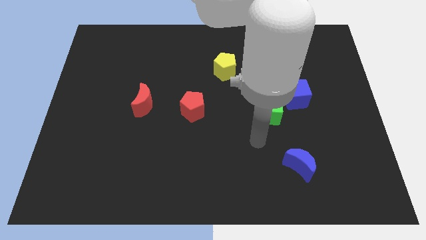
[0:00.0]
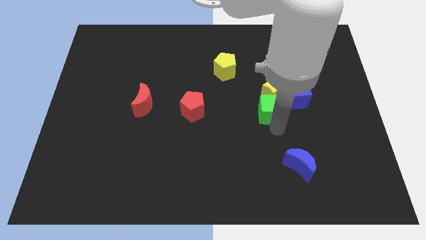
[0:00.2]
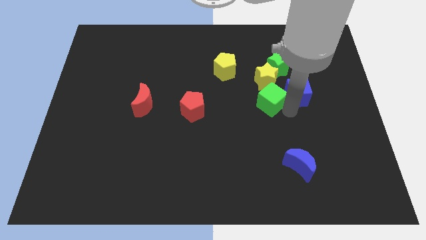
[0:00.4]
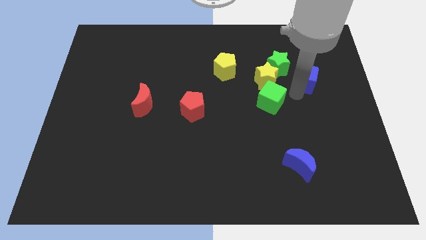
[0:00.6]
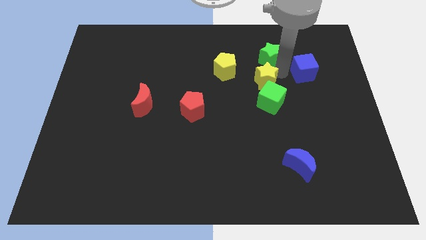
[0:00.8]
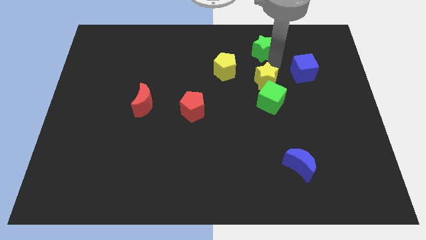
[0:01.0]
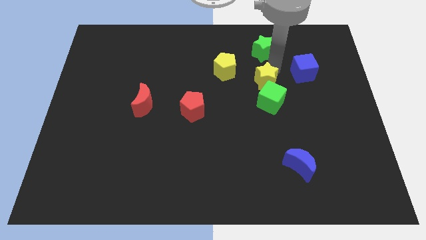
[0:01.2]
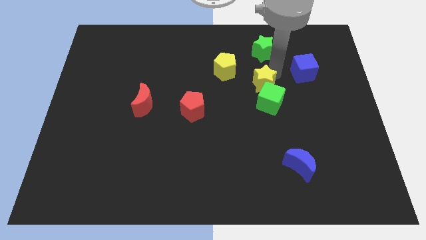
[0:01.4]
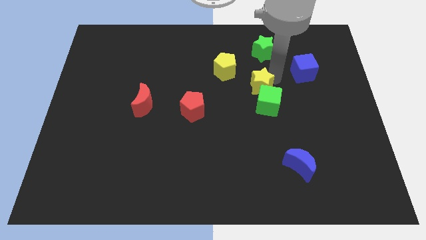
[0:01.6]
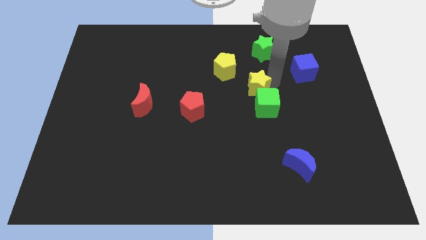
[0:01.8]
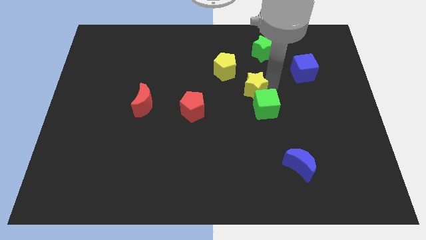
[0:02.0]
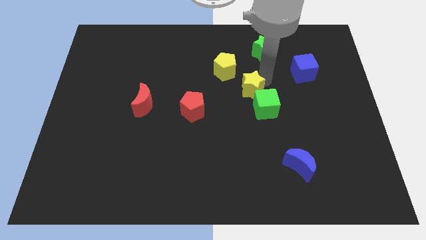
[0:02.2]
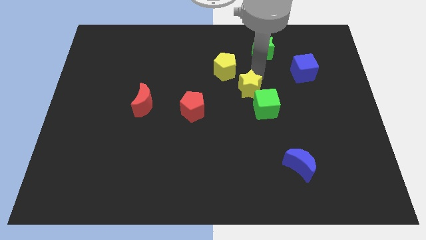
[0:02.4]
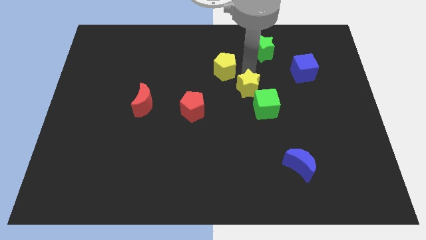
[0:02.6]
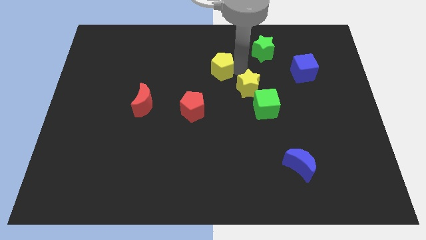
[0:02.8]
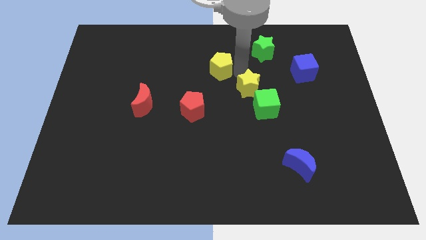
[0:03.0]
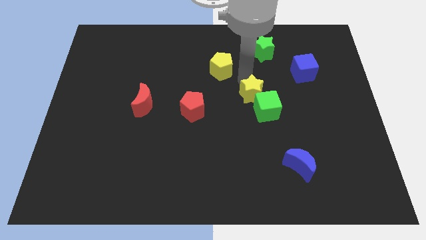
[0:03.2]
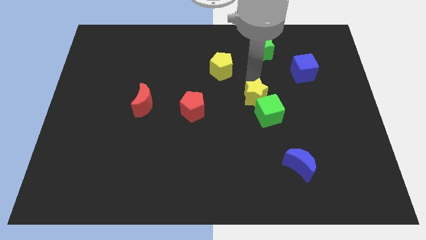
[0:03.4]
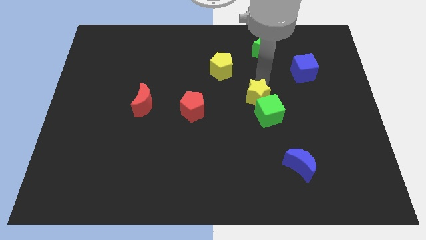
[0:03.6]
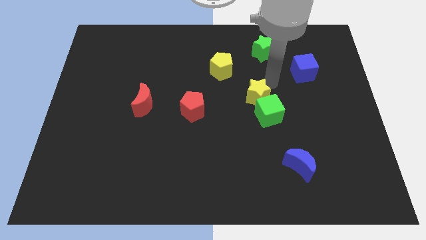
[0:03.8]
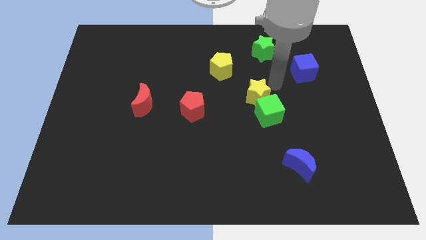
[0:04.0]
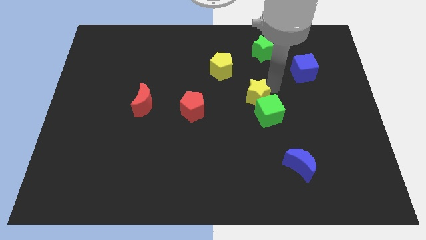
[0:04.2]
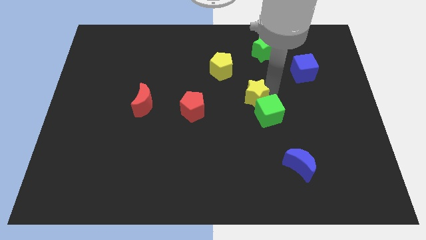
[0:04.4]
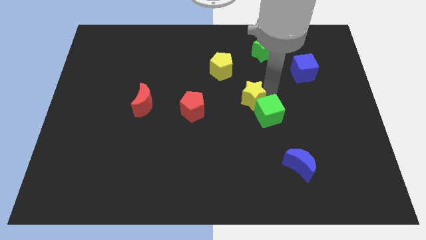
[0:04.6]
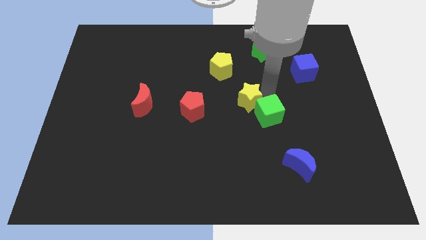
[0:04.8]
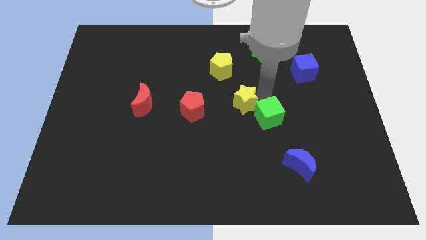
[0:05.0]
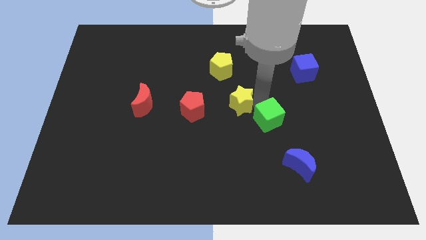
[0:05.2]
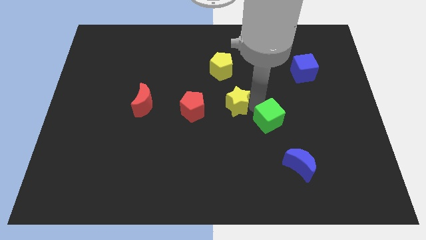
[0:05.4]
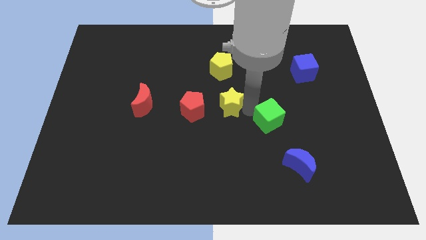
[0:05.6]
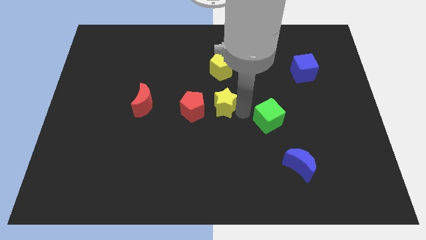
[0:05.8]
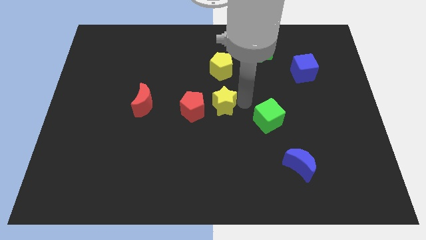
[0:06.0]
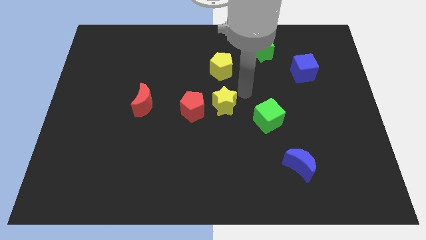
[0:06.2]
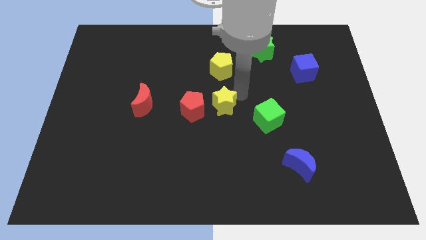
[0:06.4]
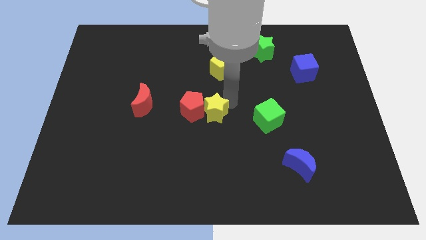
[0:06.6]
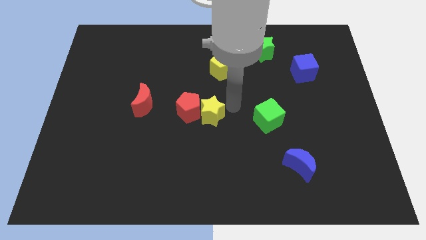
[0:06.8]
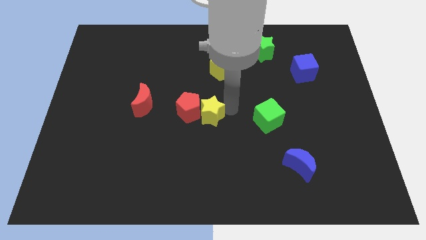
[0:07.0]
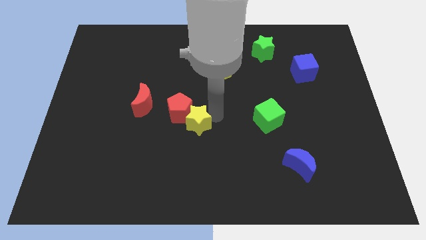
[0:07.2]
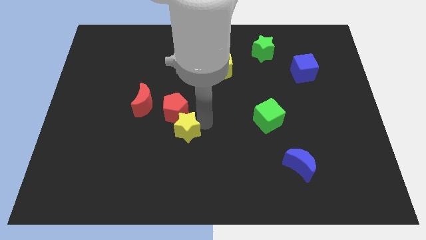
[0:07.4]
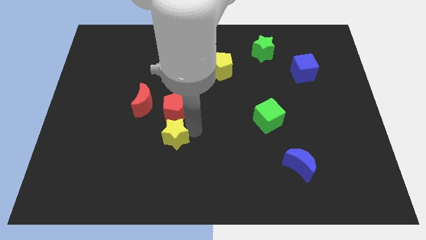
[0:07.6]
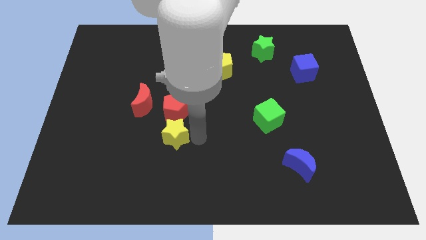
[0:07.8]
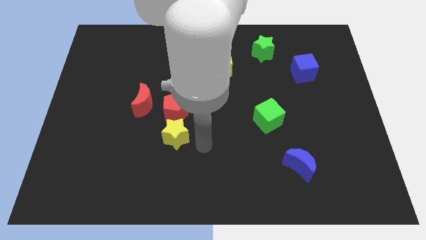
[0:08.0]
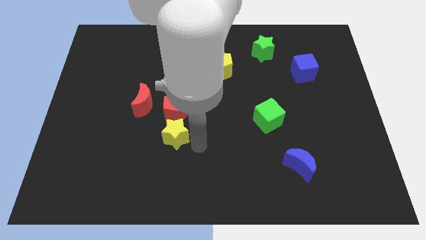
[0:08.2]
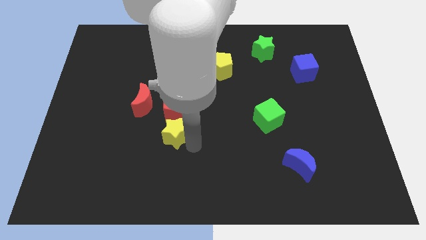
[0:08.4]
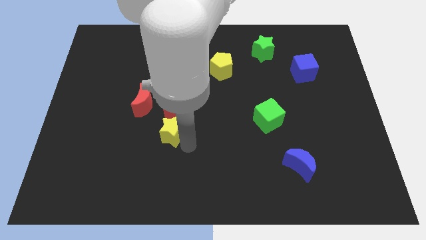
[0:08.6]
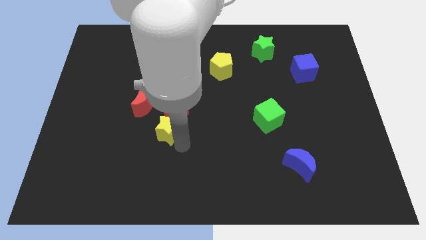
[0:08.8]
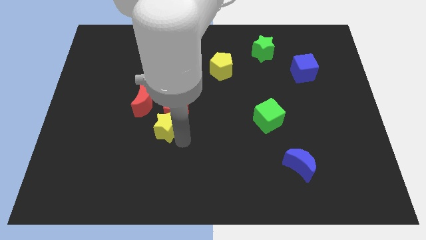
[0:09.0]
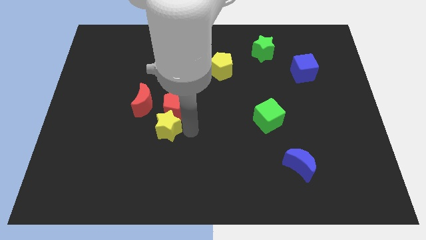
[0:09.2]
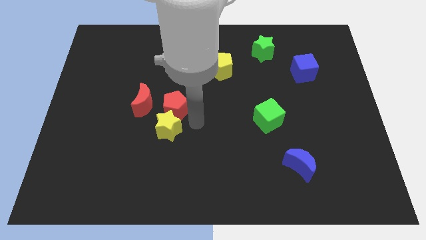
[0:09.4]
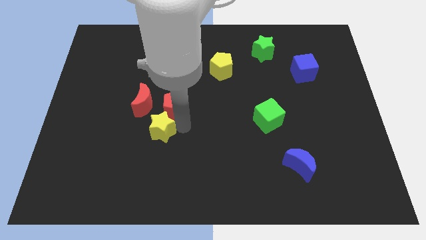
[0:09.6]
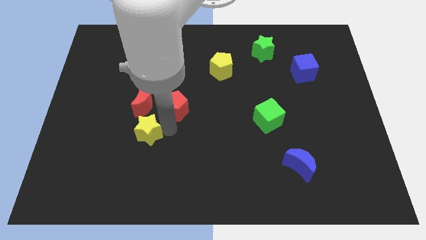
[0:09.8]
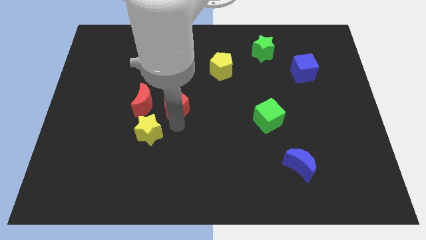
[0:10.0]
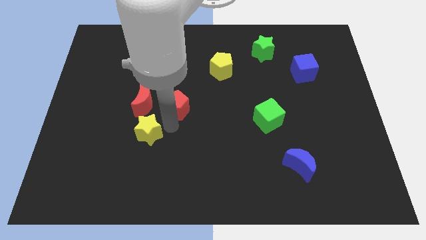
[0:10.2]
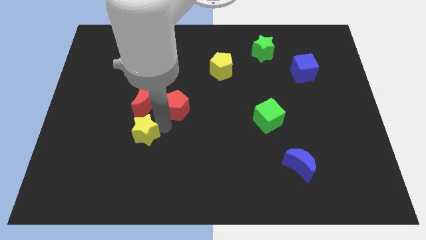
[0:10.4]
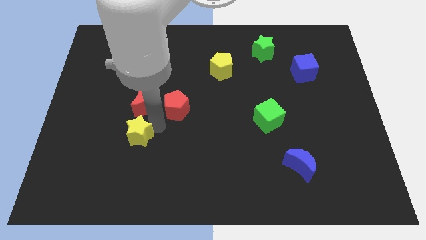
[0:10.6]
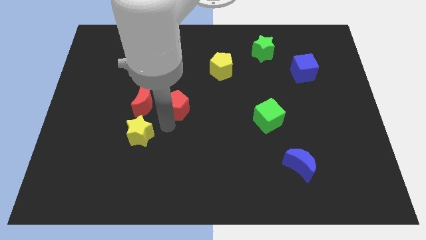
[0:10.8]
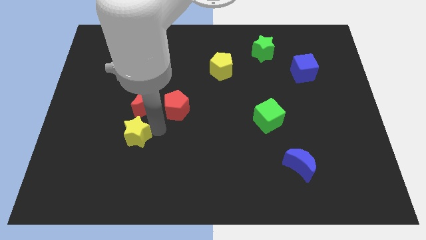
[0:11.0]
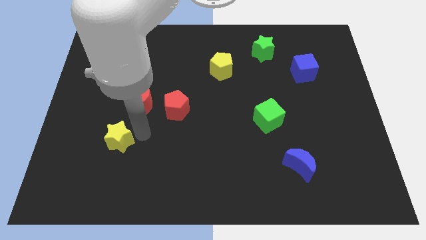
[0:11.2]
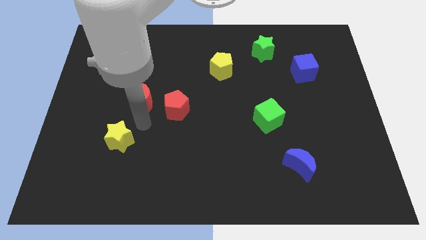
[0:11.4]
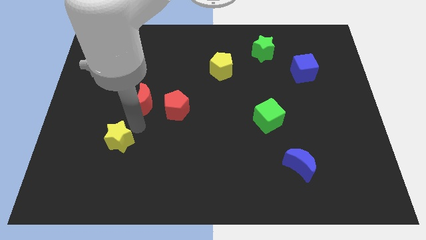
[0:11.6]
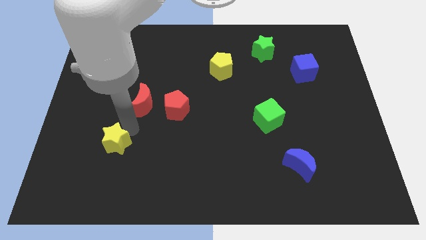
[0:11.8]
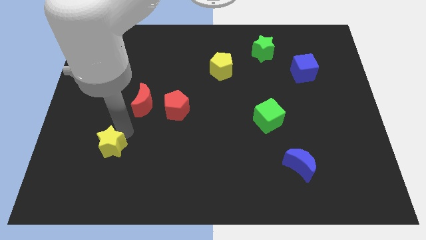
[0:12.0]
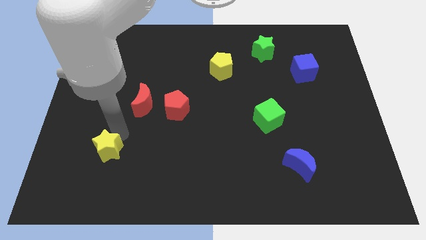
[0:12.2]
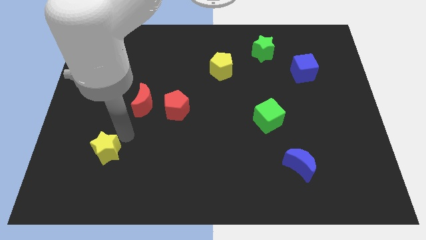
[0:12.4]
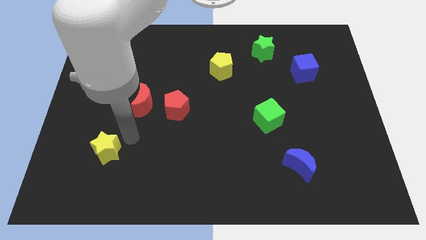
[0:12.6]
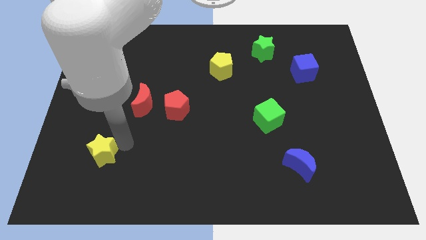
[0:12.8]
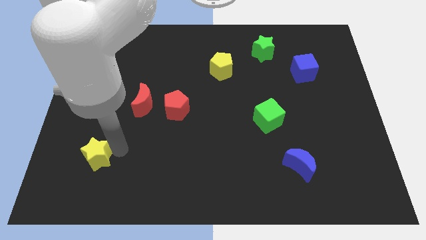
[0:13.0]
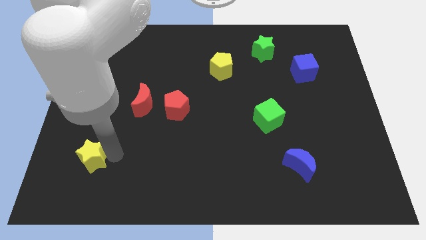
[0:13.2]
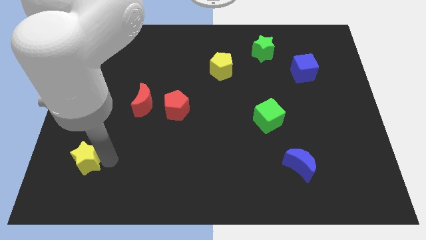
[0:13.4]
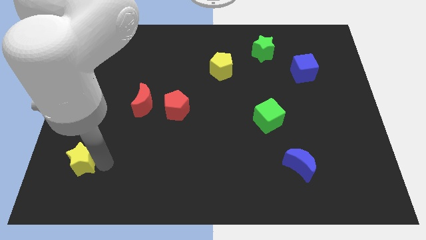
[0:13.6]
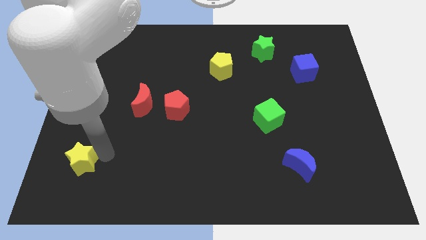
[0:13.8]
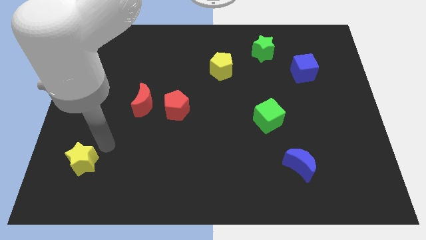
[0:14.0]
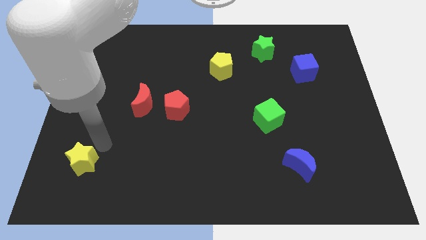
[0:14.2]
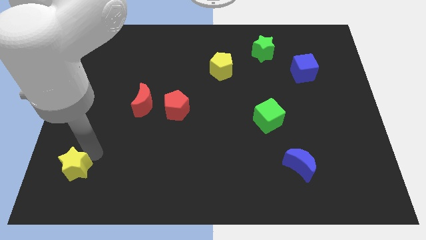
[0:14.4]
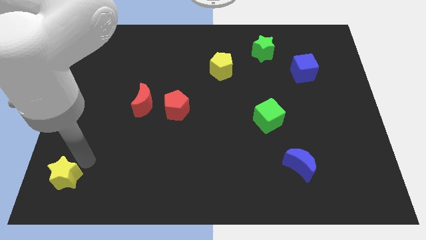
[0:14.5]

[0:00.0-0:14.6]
push the yellow star to the lower left corner
